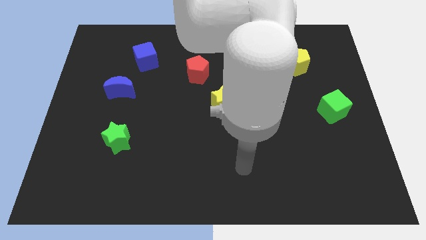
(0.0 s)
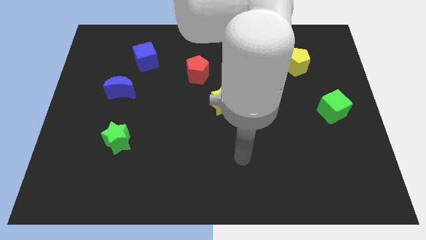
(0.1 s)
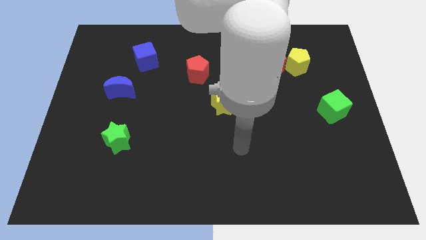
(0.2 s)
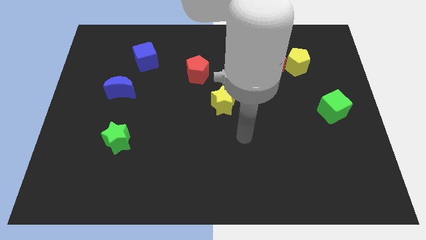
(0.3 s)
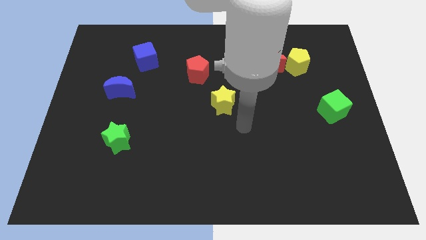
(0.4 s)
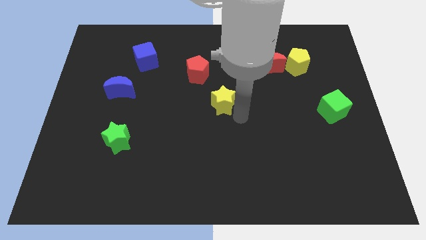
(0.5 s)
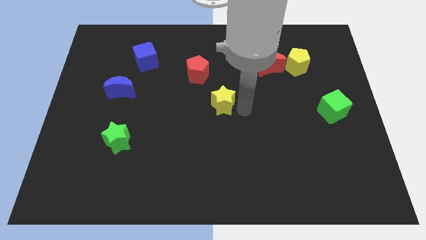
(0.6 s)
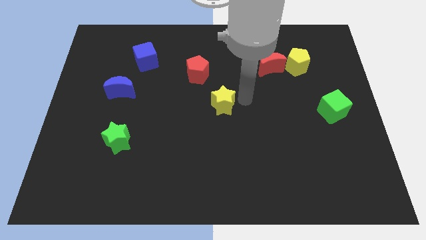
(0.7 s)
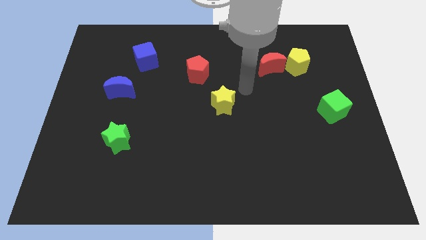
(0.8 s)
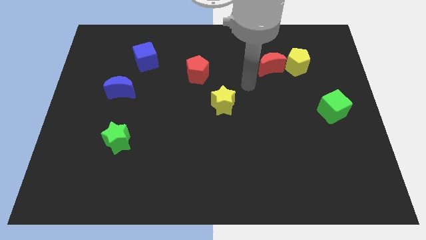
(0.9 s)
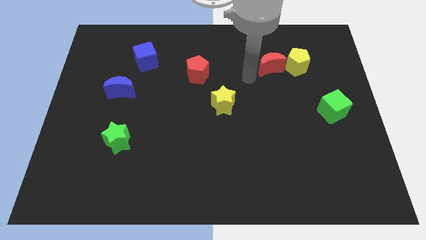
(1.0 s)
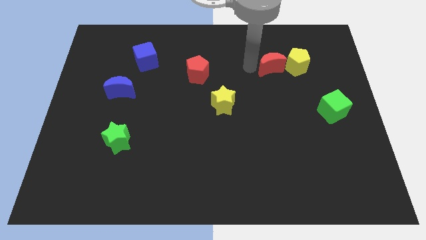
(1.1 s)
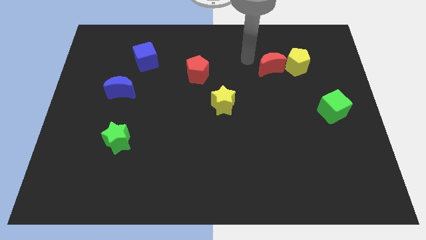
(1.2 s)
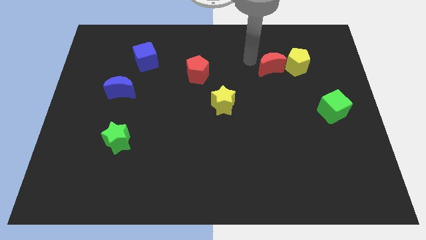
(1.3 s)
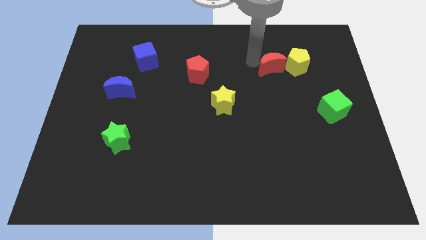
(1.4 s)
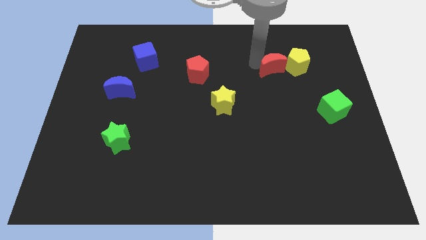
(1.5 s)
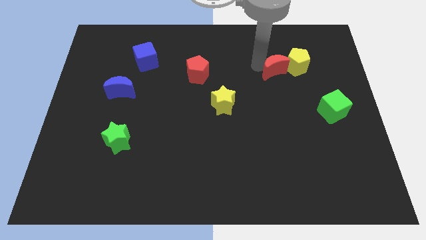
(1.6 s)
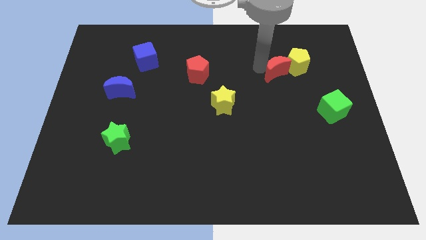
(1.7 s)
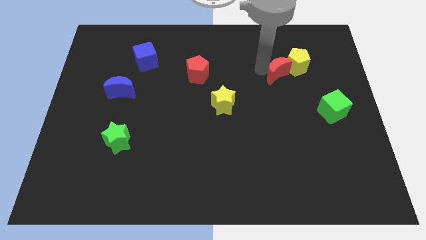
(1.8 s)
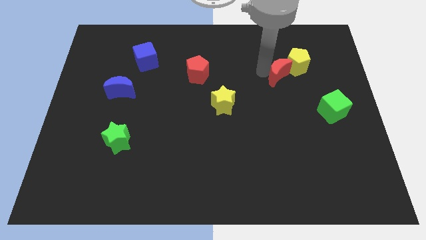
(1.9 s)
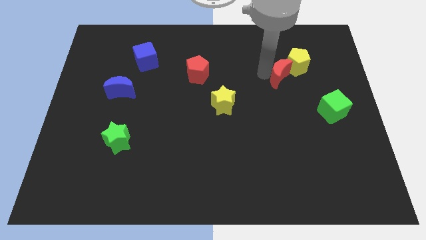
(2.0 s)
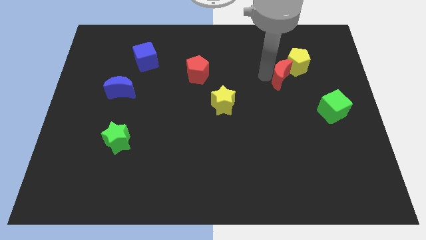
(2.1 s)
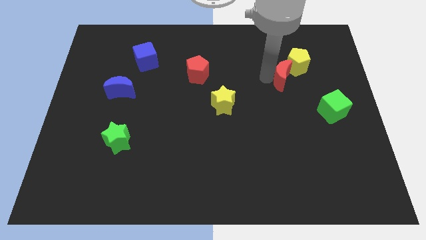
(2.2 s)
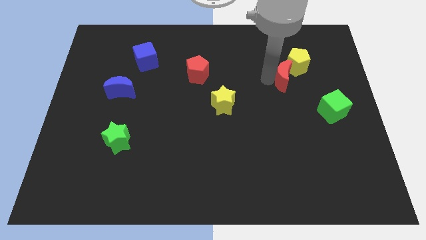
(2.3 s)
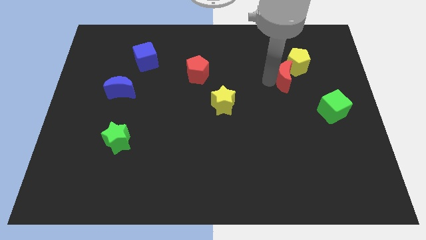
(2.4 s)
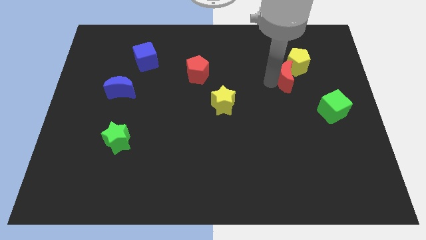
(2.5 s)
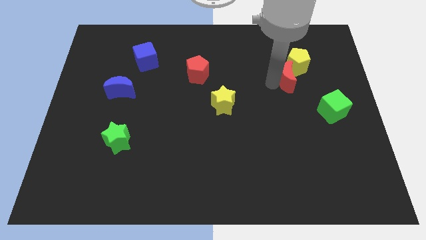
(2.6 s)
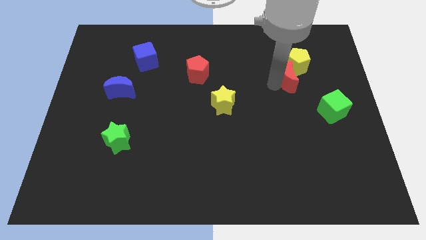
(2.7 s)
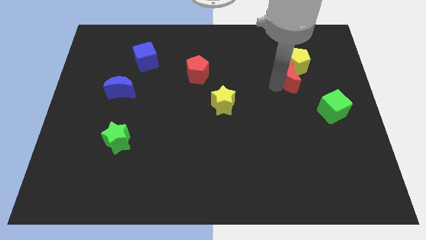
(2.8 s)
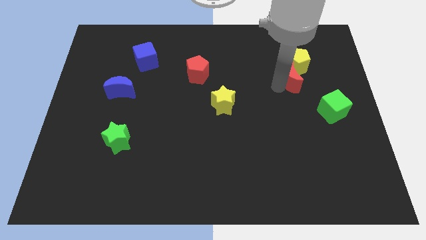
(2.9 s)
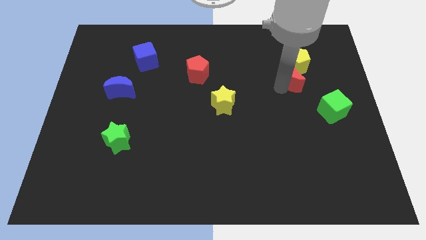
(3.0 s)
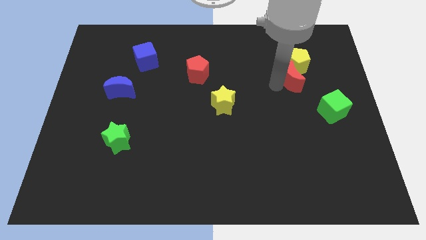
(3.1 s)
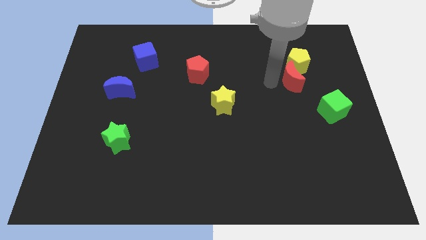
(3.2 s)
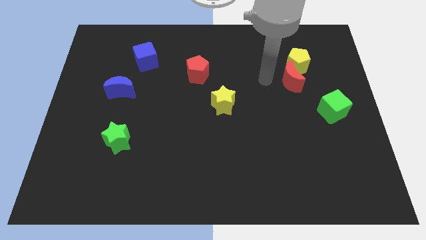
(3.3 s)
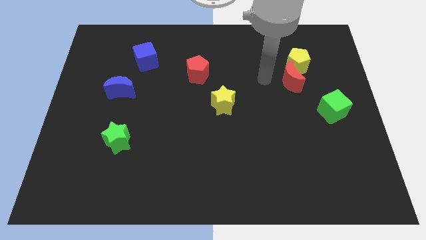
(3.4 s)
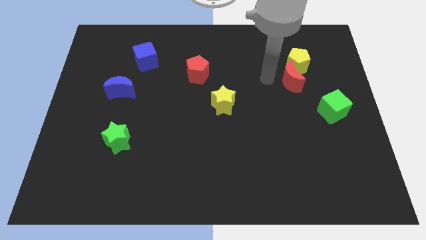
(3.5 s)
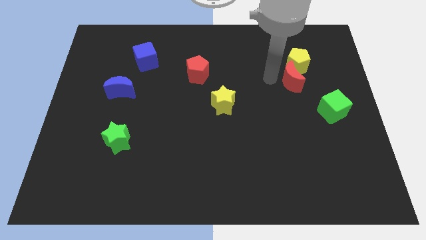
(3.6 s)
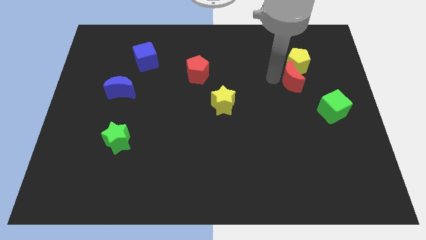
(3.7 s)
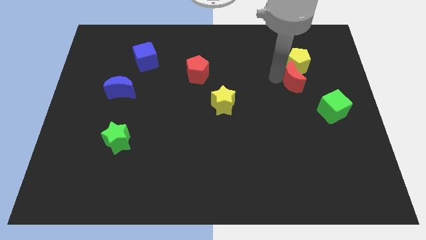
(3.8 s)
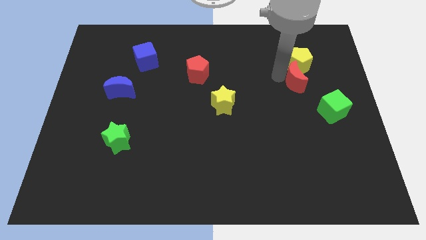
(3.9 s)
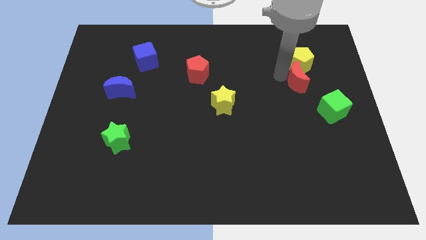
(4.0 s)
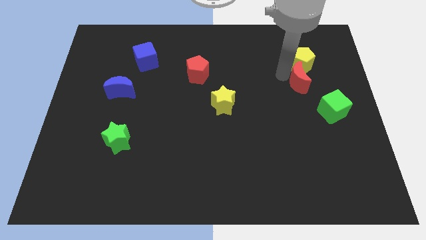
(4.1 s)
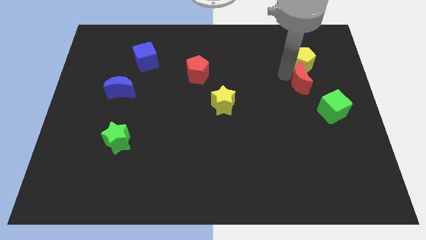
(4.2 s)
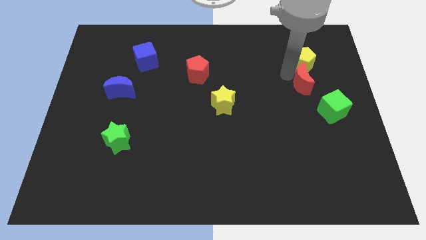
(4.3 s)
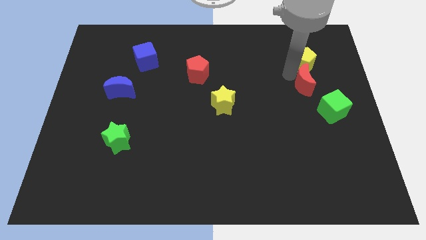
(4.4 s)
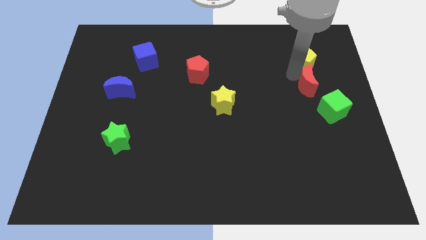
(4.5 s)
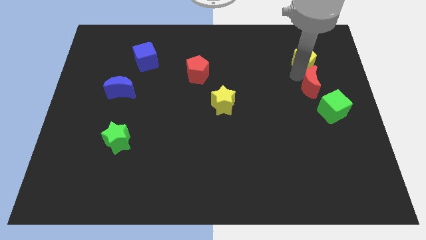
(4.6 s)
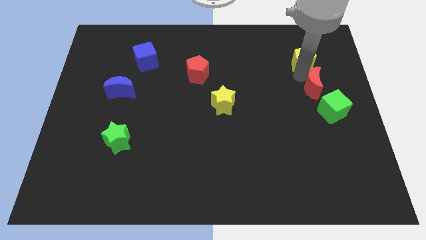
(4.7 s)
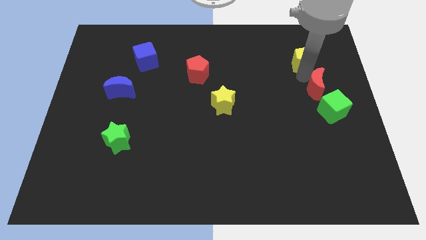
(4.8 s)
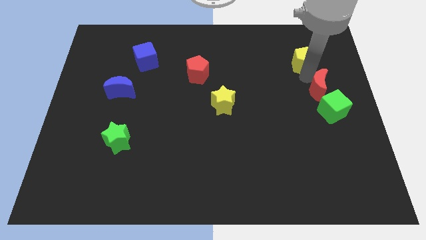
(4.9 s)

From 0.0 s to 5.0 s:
push the red moon to the right side of the board

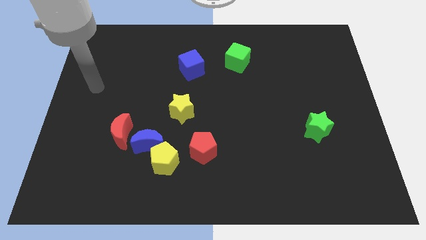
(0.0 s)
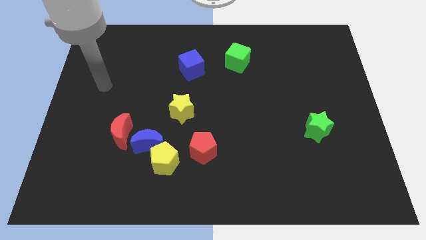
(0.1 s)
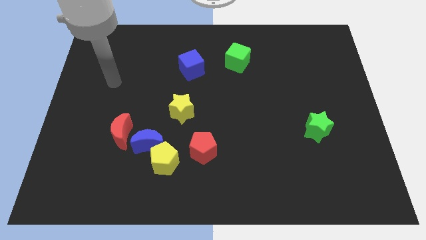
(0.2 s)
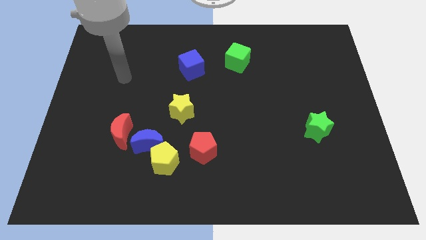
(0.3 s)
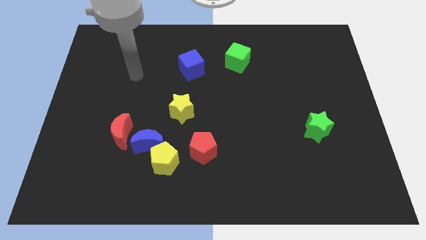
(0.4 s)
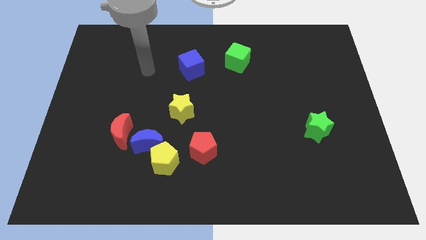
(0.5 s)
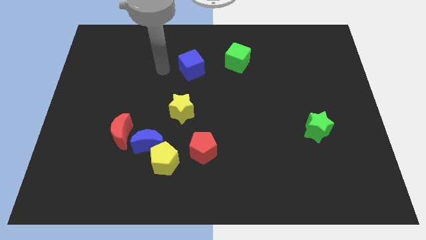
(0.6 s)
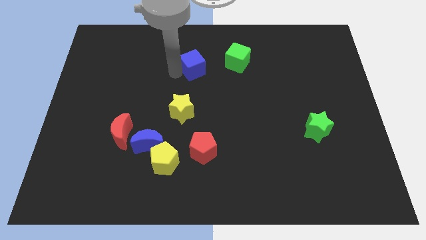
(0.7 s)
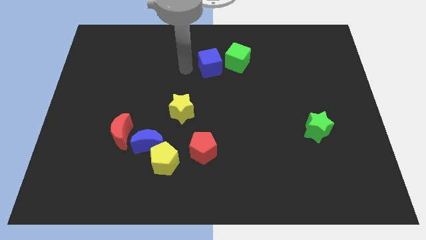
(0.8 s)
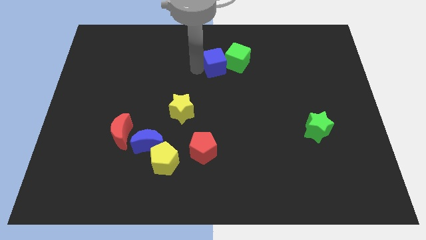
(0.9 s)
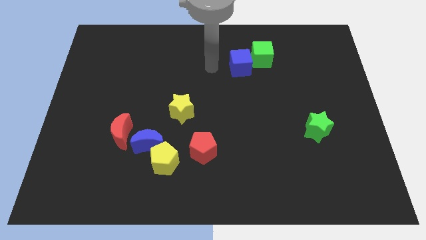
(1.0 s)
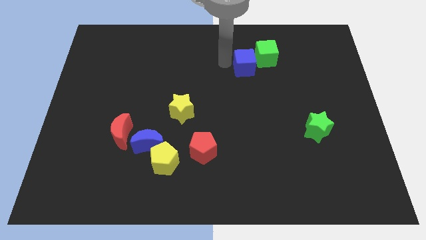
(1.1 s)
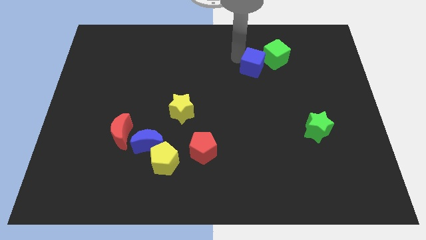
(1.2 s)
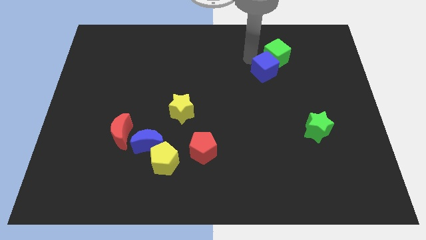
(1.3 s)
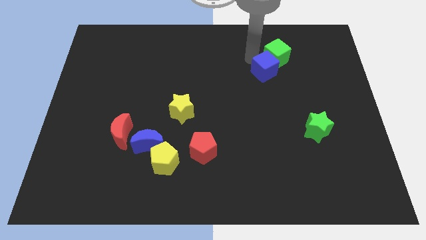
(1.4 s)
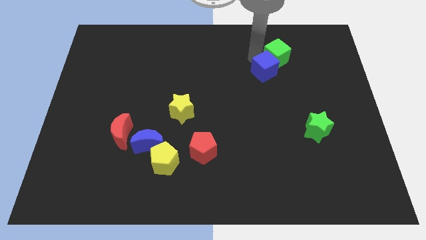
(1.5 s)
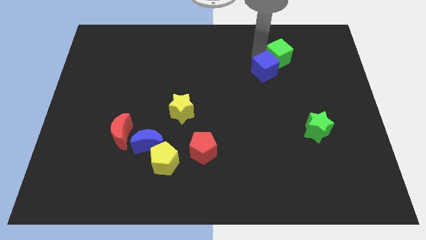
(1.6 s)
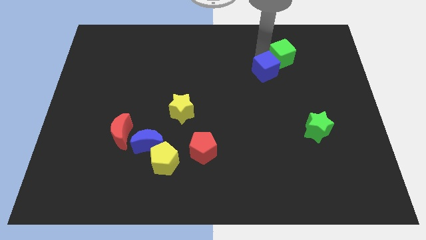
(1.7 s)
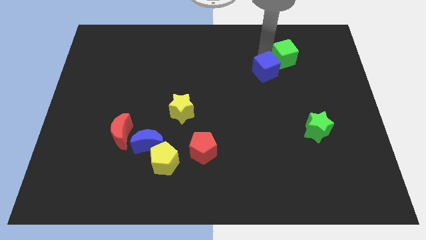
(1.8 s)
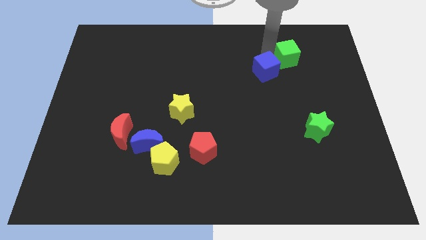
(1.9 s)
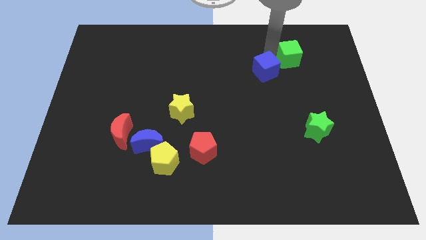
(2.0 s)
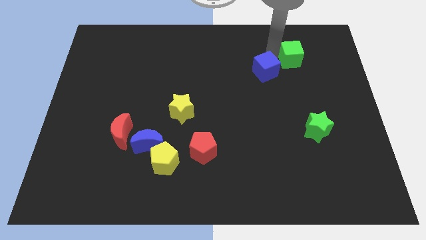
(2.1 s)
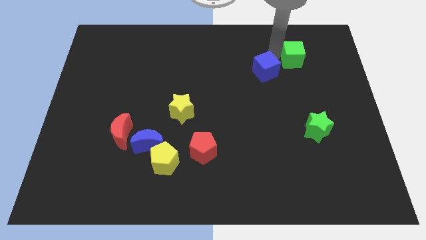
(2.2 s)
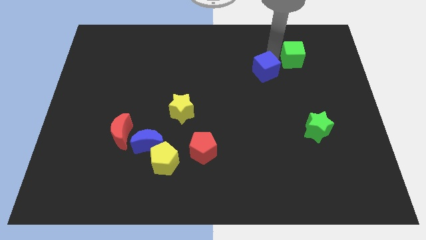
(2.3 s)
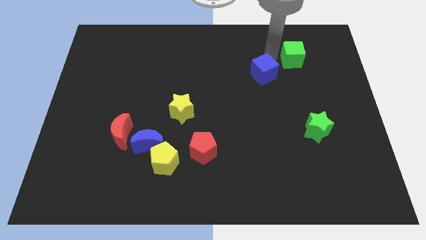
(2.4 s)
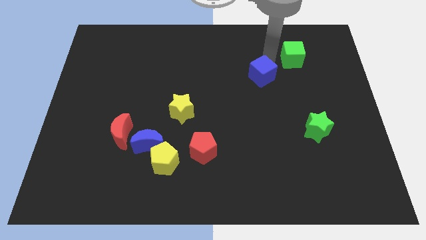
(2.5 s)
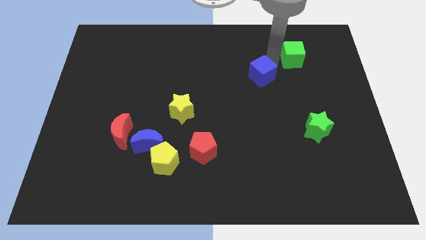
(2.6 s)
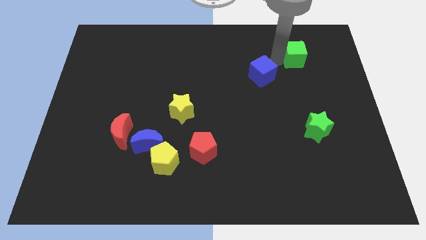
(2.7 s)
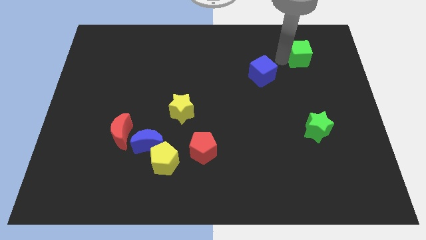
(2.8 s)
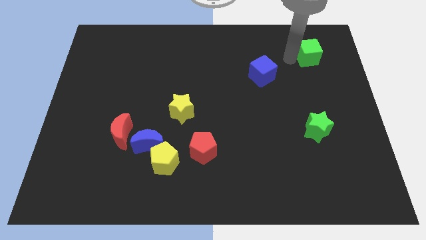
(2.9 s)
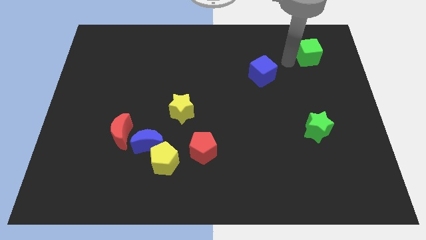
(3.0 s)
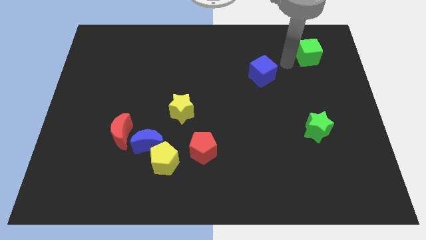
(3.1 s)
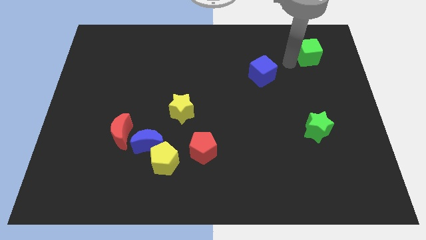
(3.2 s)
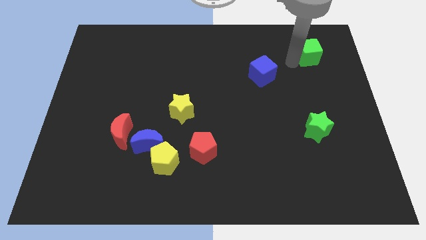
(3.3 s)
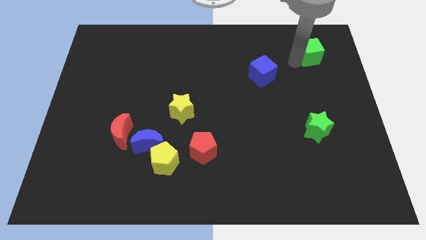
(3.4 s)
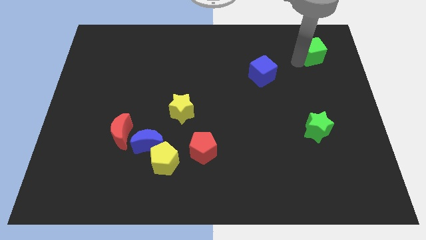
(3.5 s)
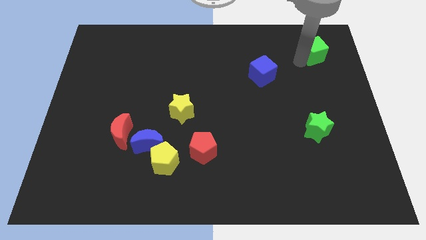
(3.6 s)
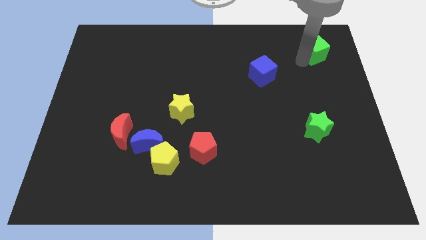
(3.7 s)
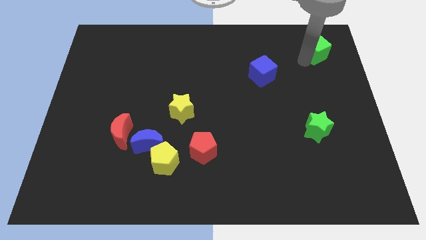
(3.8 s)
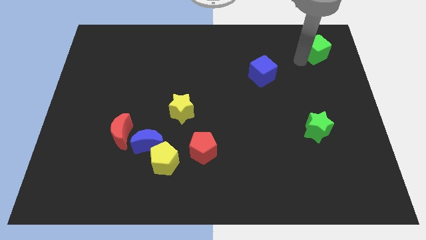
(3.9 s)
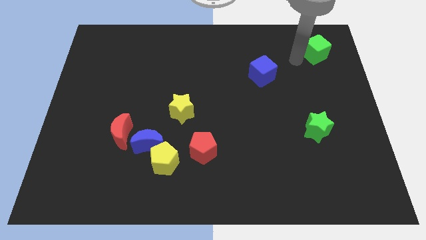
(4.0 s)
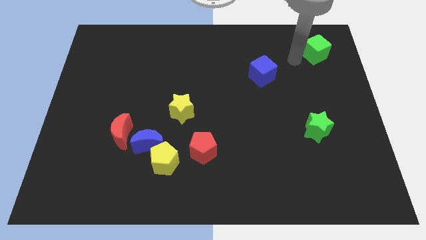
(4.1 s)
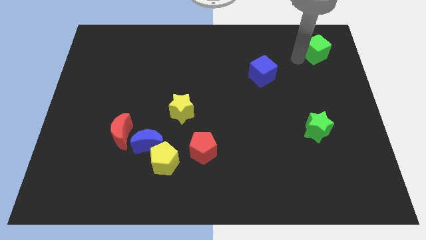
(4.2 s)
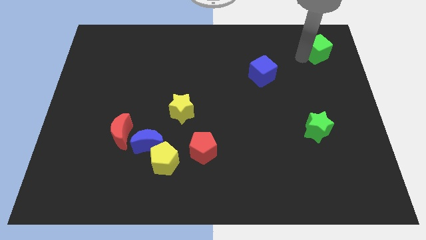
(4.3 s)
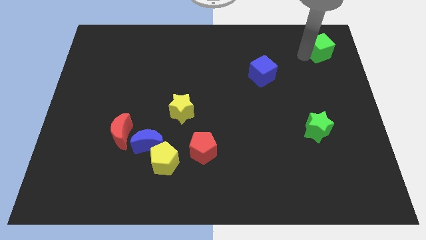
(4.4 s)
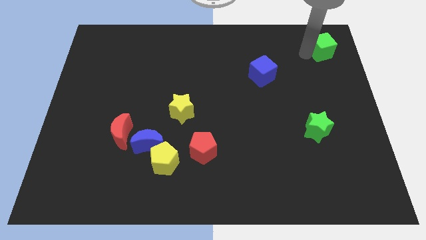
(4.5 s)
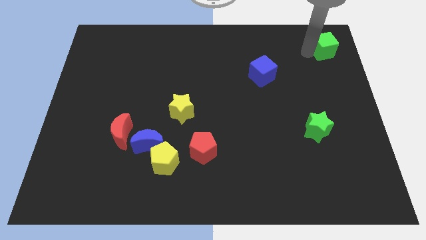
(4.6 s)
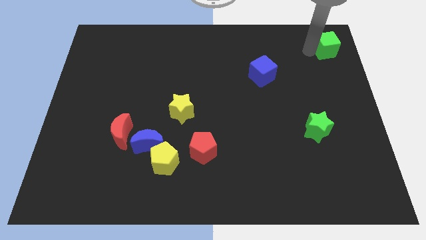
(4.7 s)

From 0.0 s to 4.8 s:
move the green cube to the top right
